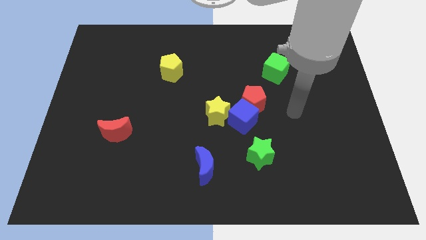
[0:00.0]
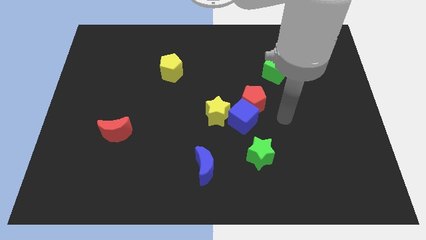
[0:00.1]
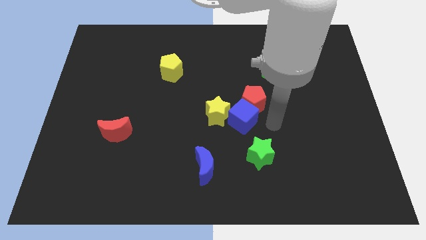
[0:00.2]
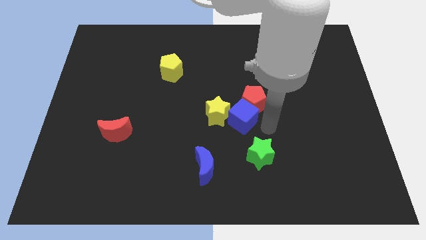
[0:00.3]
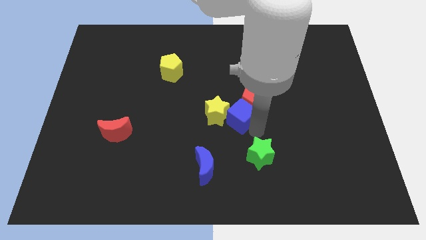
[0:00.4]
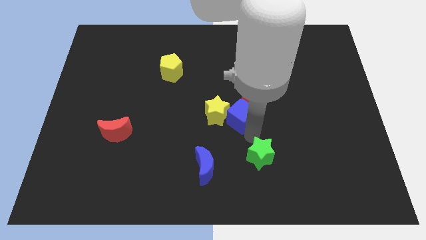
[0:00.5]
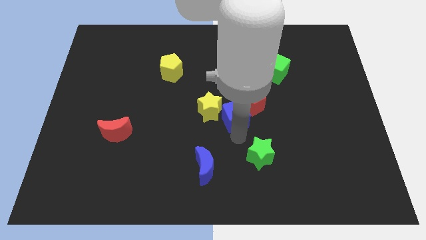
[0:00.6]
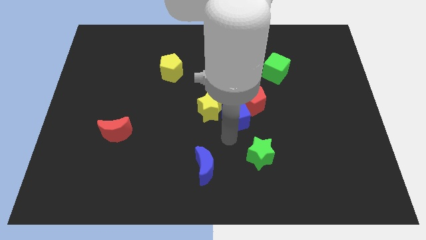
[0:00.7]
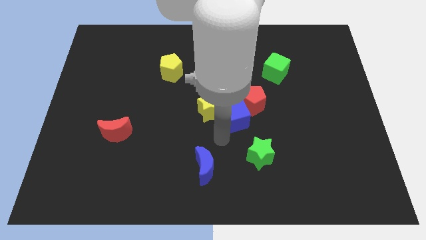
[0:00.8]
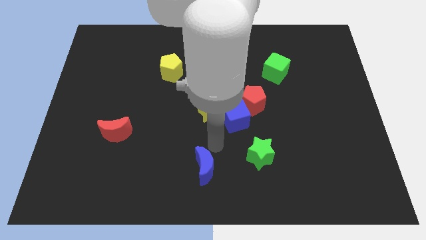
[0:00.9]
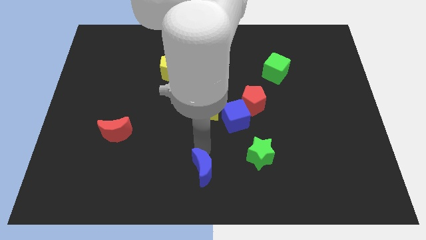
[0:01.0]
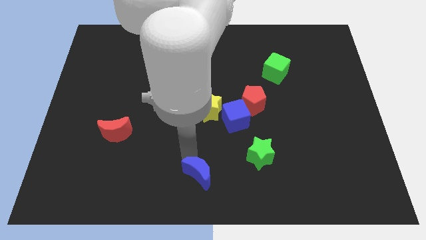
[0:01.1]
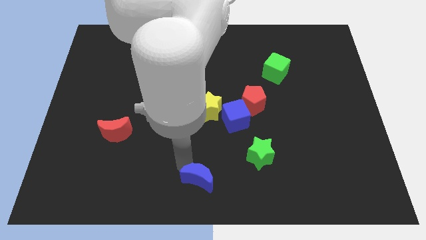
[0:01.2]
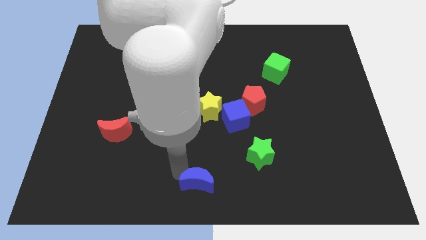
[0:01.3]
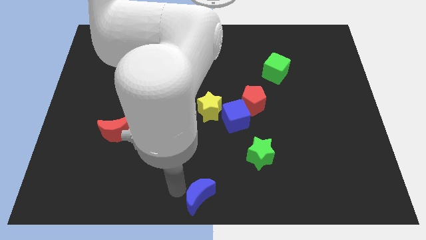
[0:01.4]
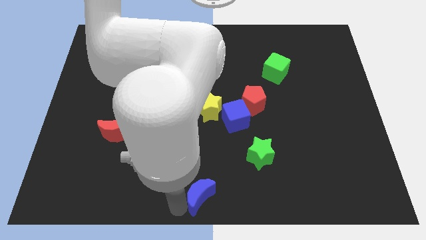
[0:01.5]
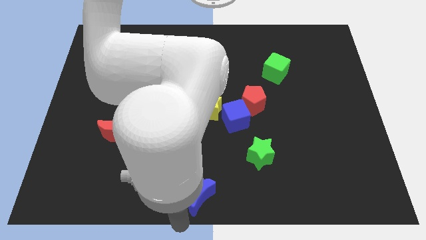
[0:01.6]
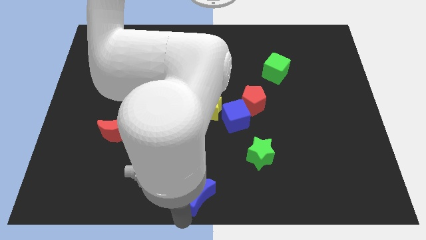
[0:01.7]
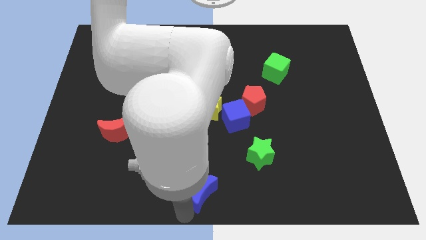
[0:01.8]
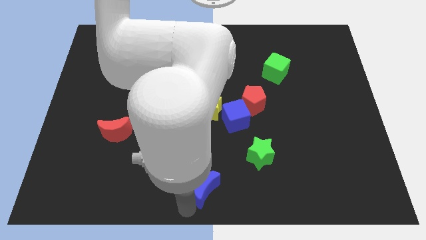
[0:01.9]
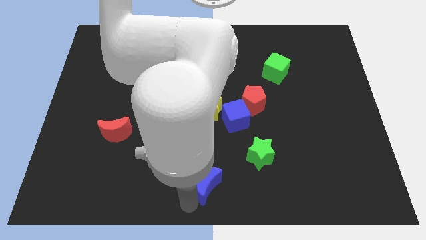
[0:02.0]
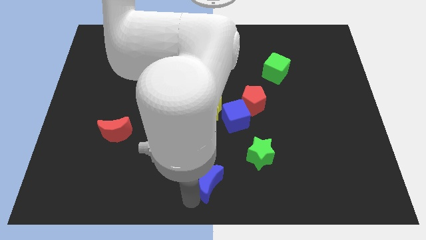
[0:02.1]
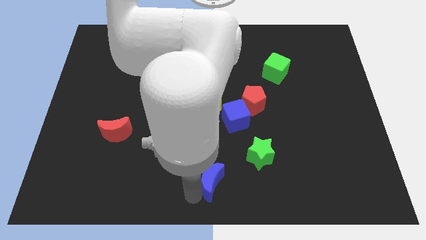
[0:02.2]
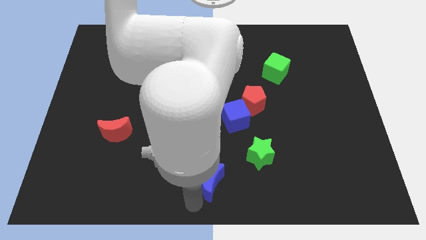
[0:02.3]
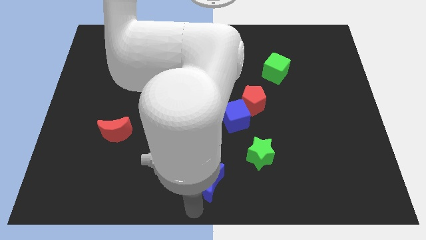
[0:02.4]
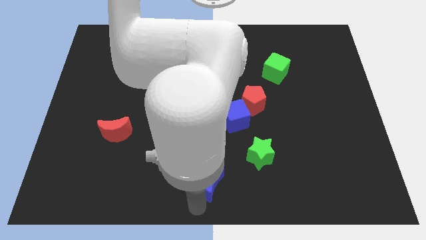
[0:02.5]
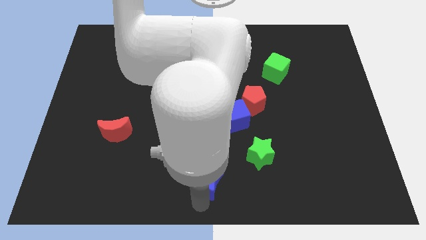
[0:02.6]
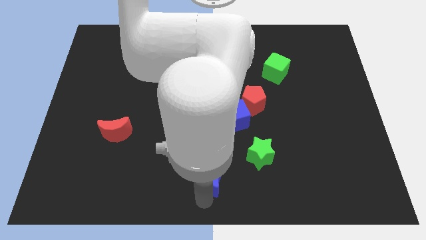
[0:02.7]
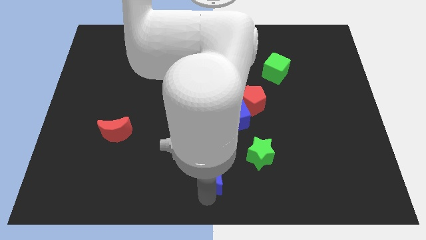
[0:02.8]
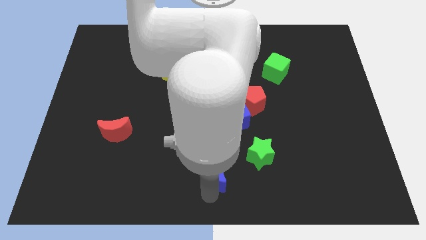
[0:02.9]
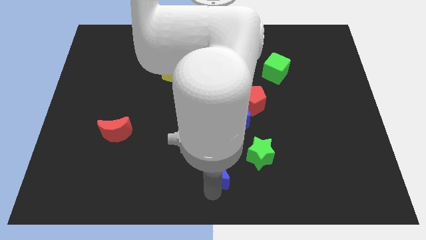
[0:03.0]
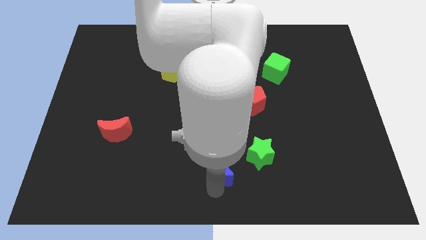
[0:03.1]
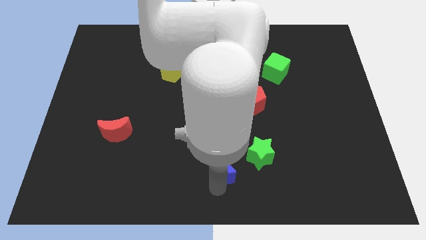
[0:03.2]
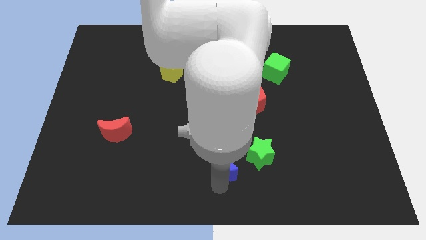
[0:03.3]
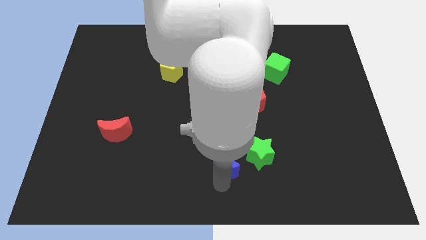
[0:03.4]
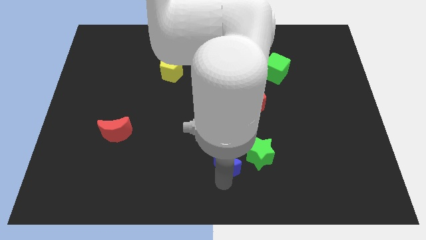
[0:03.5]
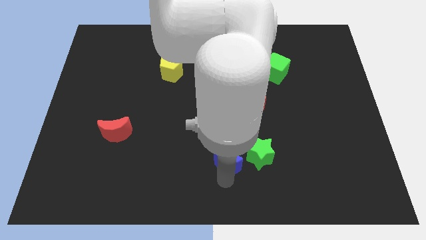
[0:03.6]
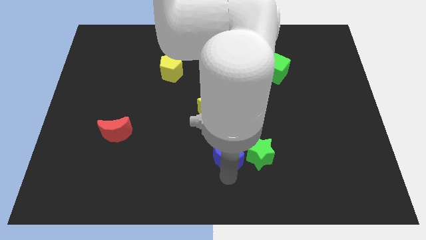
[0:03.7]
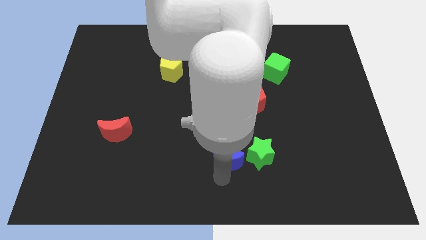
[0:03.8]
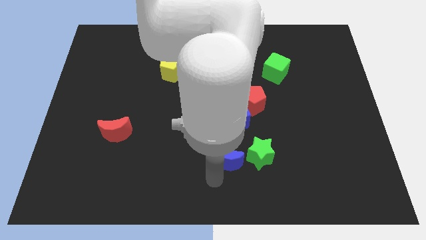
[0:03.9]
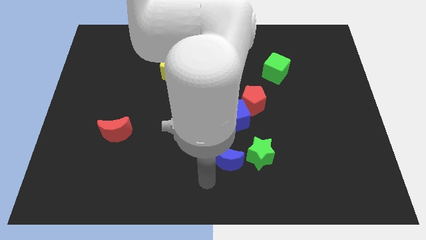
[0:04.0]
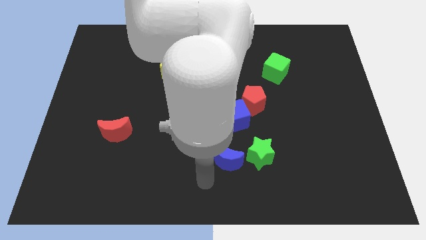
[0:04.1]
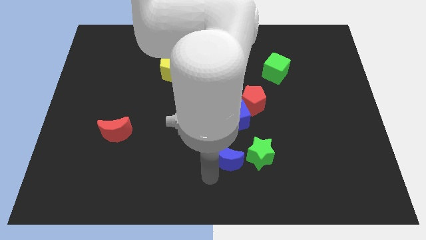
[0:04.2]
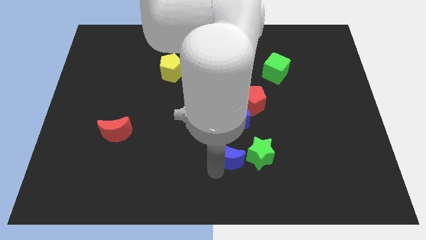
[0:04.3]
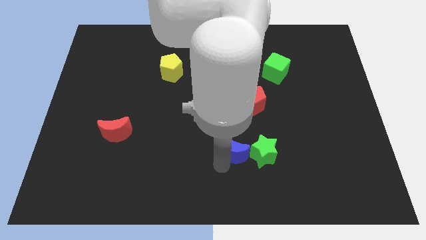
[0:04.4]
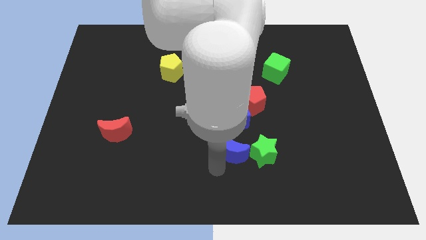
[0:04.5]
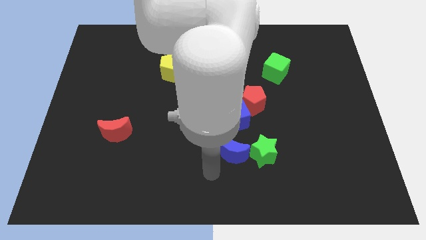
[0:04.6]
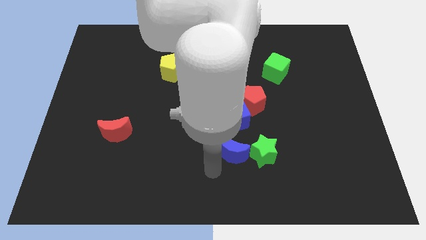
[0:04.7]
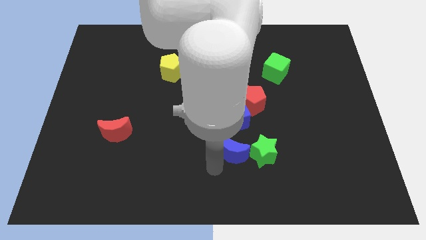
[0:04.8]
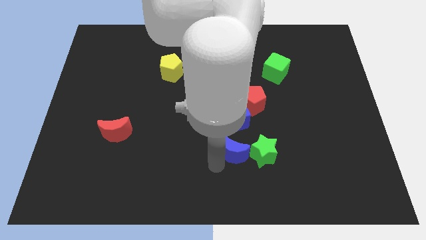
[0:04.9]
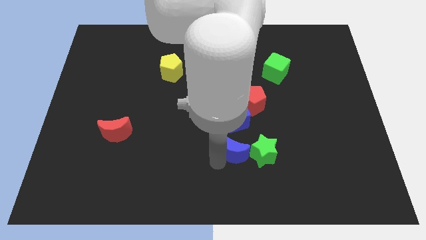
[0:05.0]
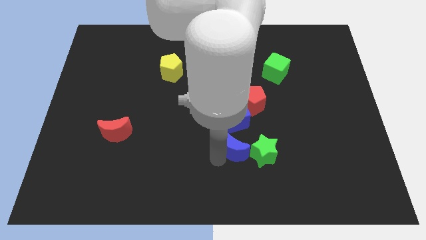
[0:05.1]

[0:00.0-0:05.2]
slide the blue moon a little bit upwards and to the right diagonally

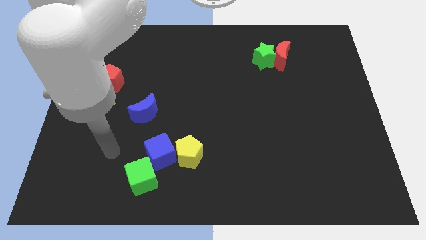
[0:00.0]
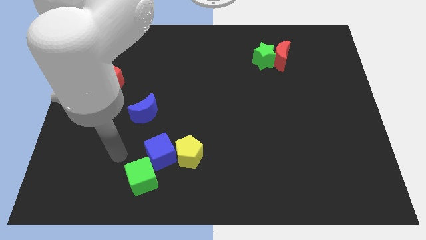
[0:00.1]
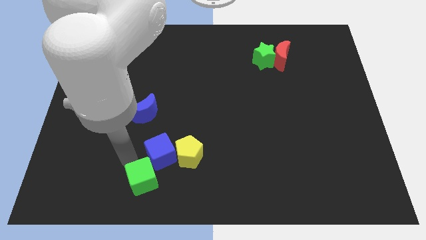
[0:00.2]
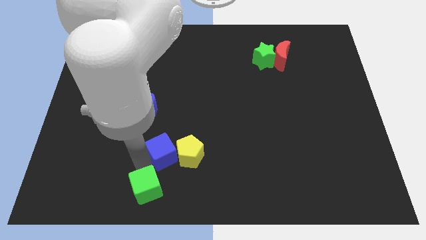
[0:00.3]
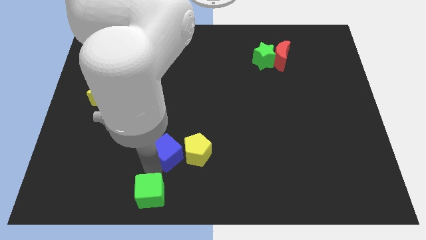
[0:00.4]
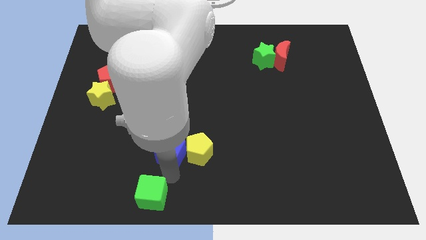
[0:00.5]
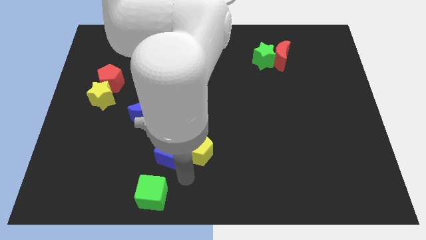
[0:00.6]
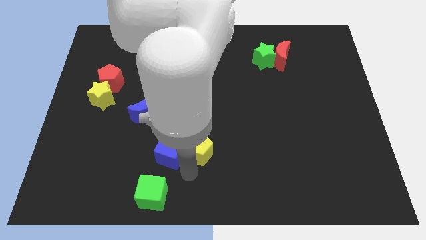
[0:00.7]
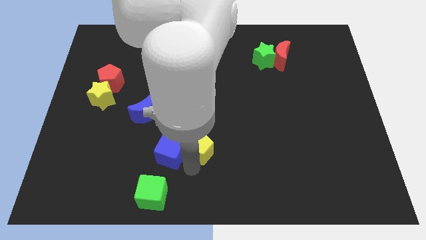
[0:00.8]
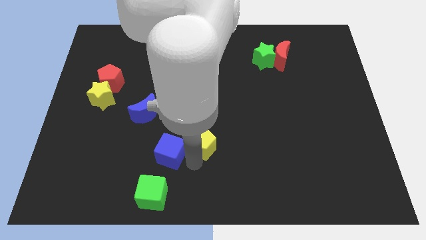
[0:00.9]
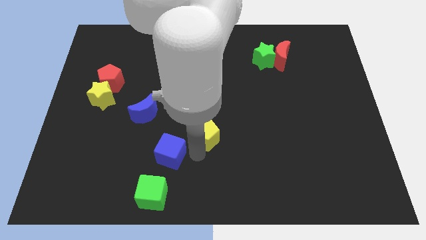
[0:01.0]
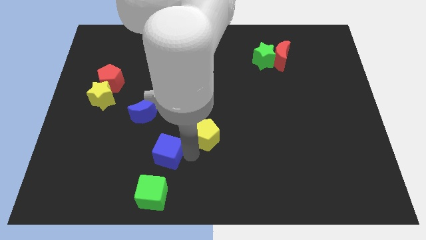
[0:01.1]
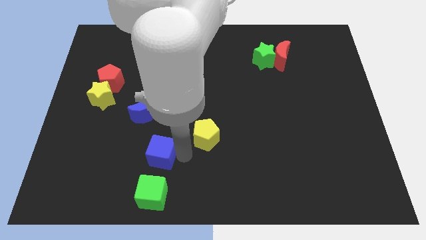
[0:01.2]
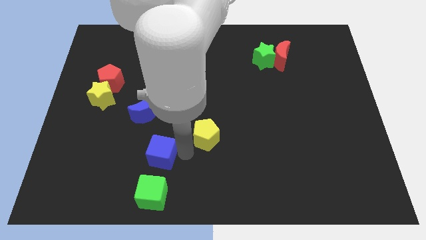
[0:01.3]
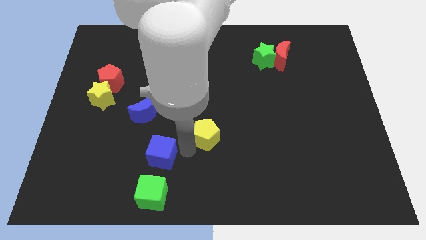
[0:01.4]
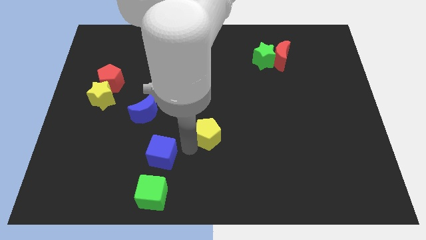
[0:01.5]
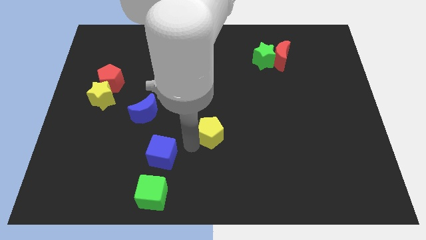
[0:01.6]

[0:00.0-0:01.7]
push the yellow pentagon diagonally upwards and right slightly

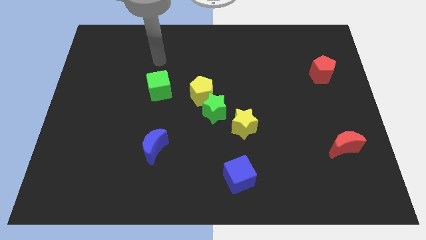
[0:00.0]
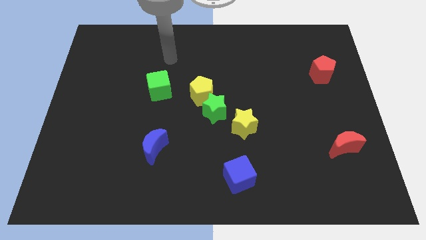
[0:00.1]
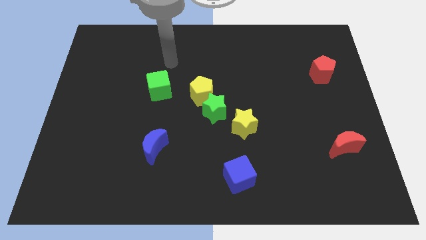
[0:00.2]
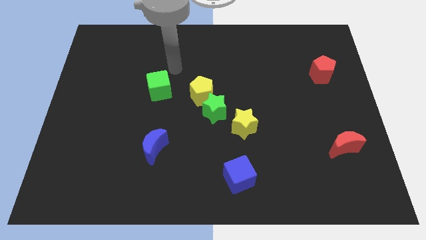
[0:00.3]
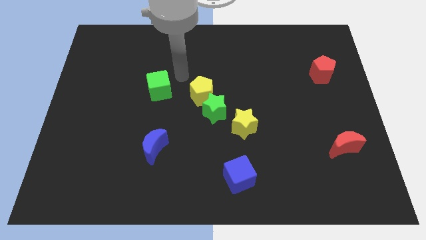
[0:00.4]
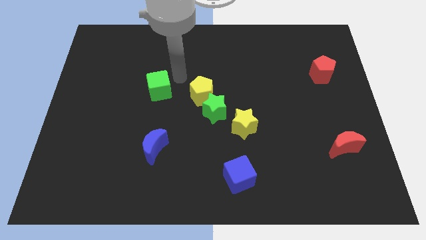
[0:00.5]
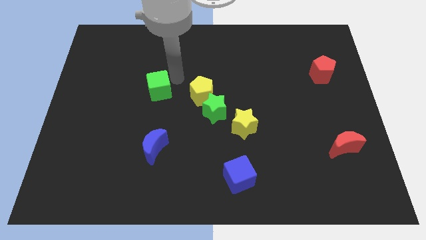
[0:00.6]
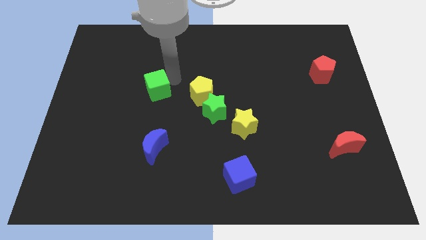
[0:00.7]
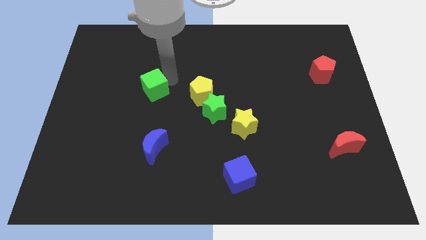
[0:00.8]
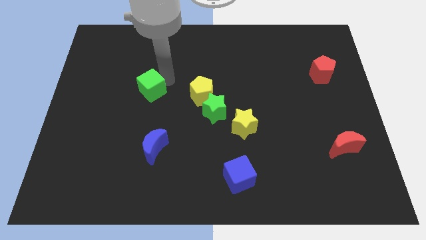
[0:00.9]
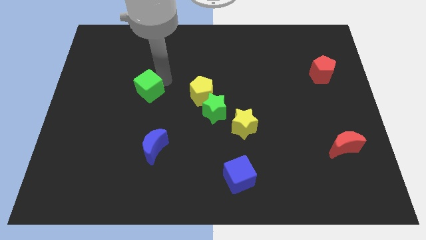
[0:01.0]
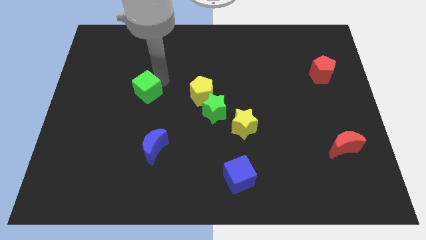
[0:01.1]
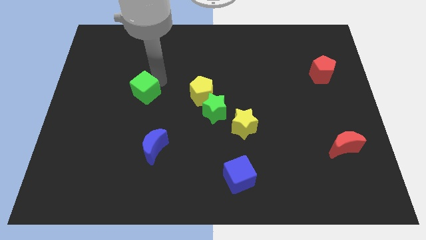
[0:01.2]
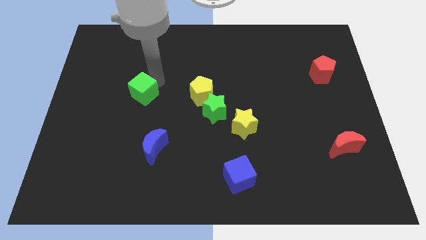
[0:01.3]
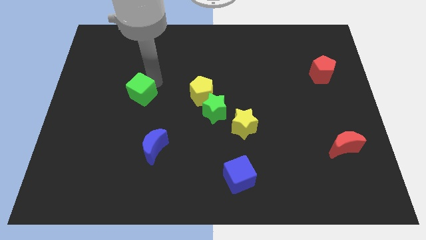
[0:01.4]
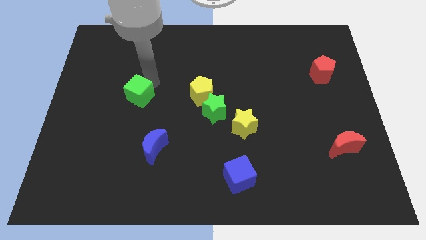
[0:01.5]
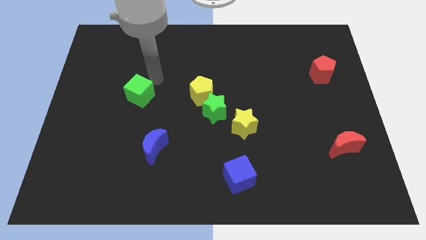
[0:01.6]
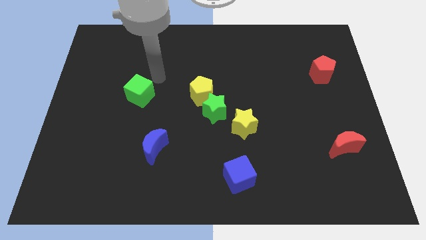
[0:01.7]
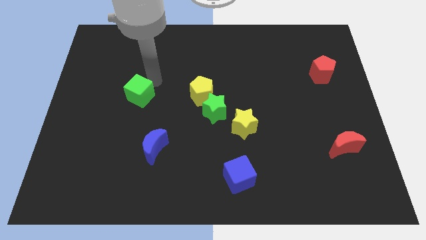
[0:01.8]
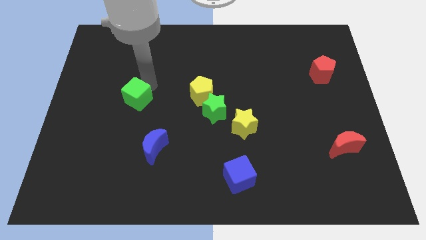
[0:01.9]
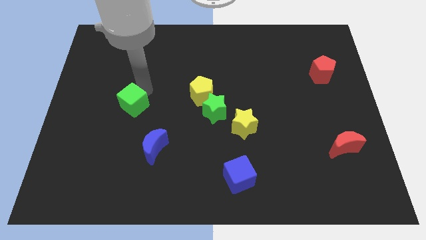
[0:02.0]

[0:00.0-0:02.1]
slightly slide the green cube diagonally downwards and left
